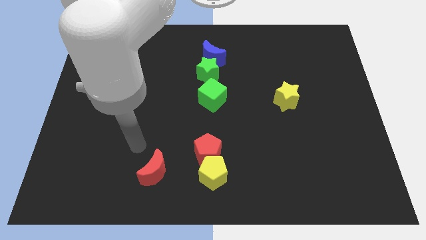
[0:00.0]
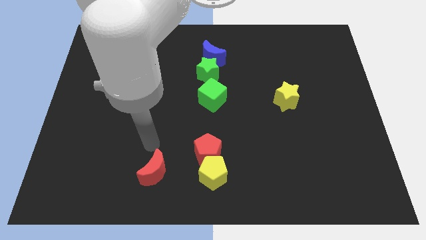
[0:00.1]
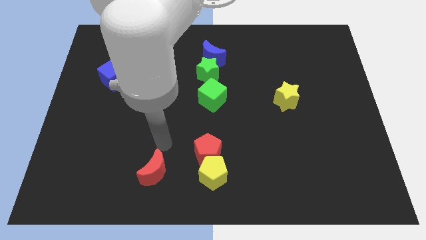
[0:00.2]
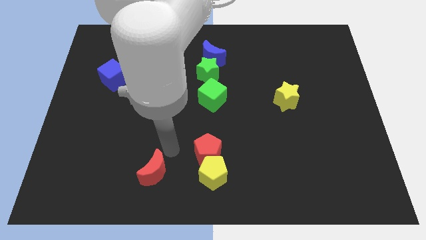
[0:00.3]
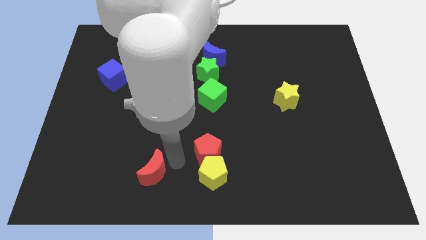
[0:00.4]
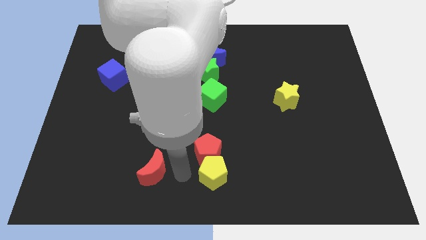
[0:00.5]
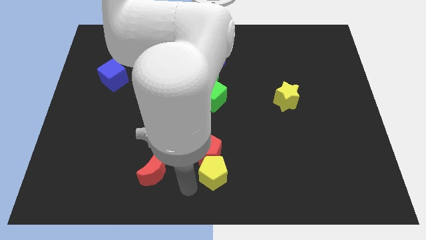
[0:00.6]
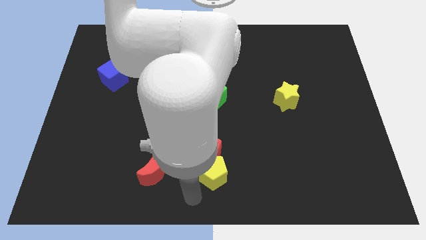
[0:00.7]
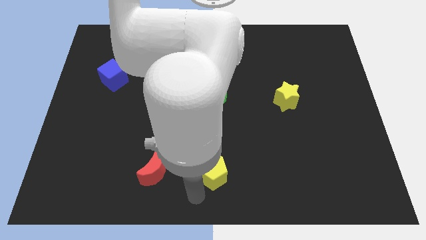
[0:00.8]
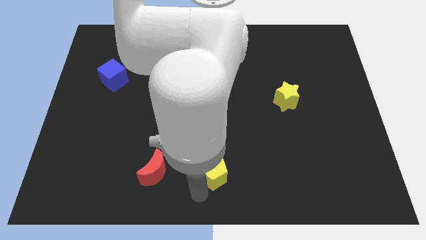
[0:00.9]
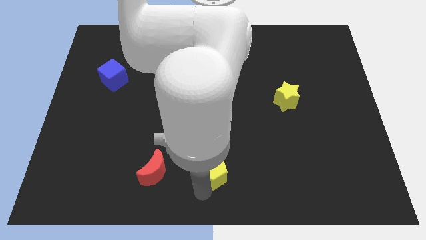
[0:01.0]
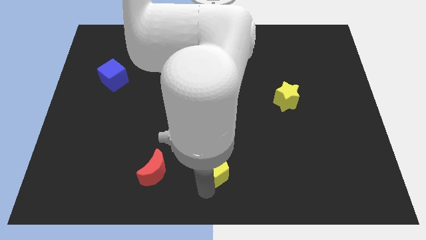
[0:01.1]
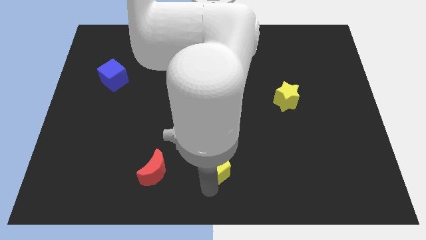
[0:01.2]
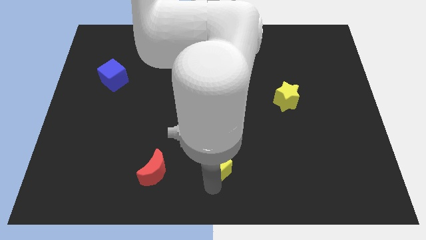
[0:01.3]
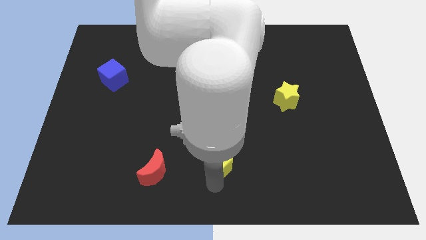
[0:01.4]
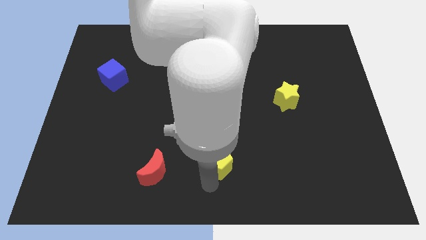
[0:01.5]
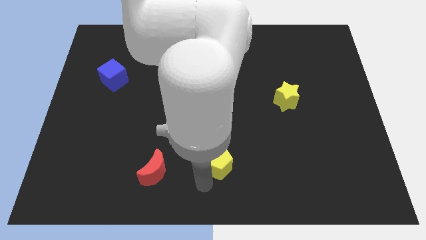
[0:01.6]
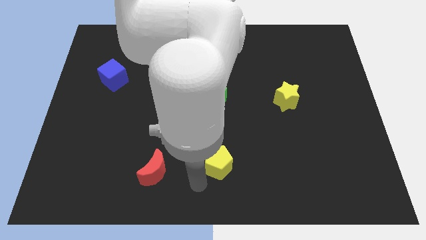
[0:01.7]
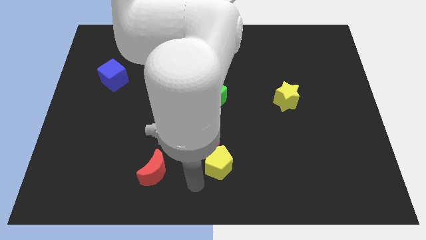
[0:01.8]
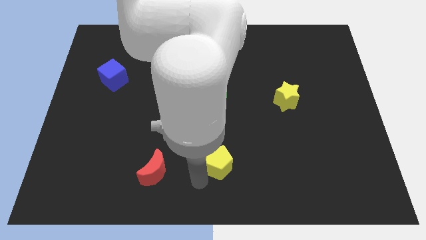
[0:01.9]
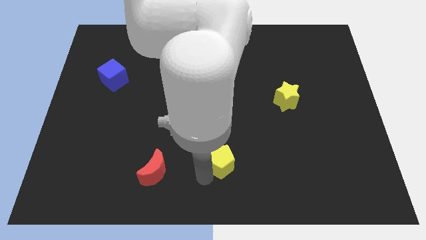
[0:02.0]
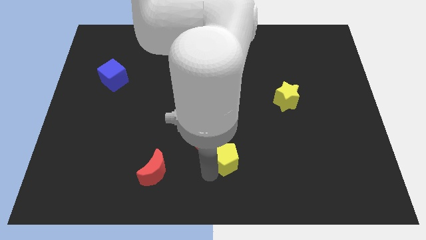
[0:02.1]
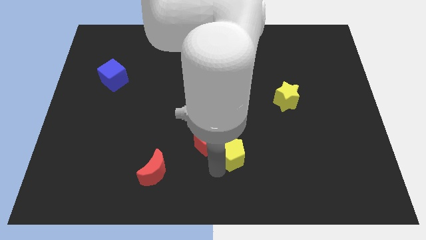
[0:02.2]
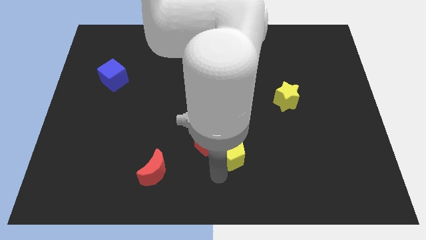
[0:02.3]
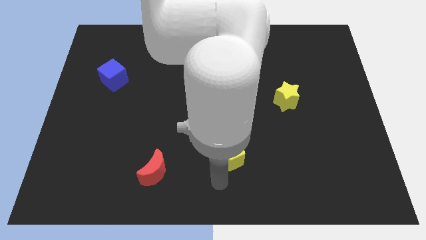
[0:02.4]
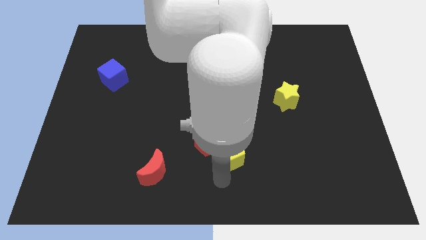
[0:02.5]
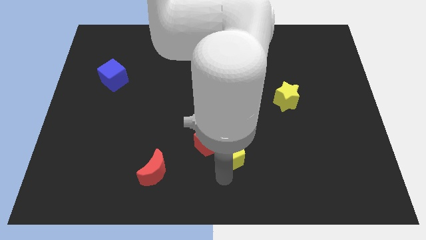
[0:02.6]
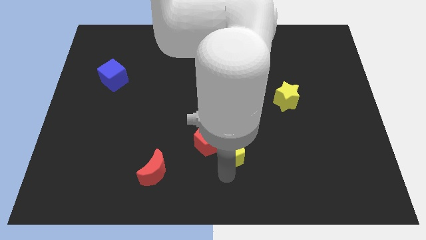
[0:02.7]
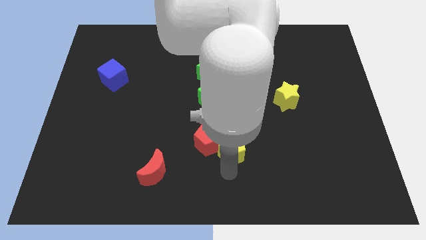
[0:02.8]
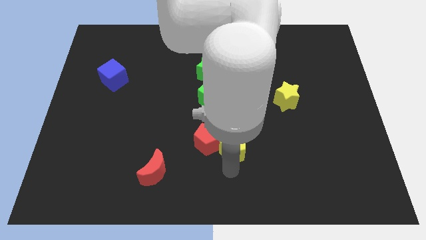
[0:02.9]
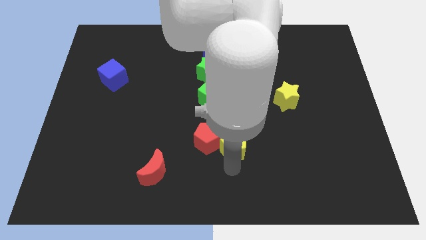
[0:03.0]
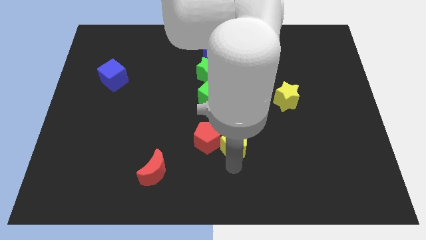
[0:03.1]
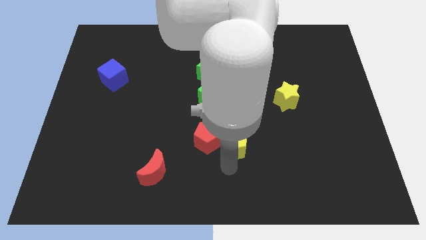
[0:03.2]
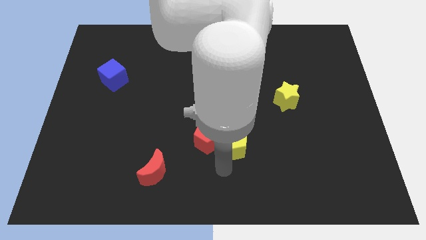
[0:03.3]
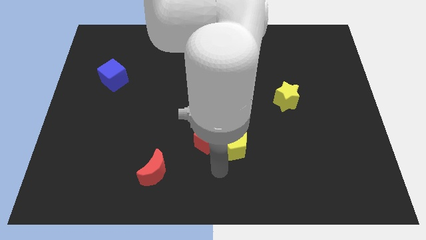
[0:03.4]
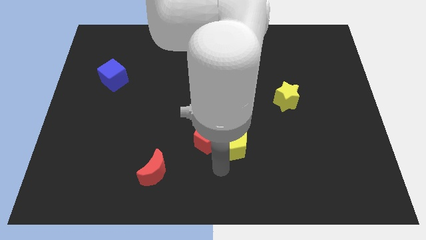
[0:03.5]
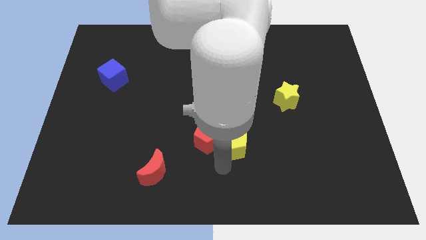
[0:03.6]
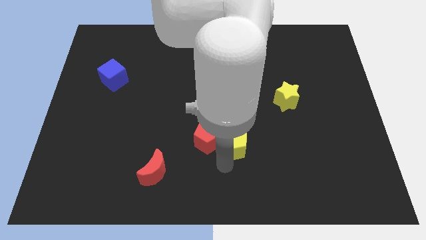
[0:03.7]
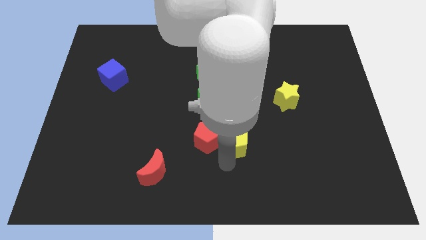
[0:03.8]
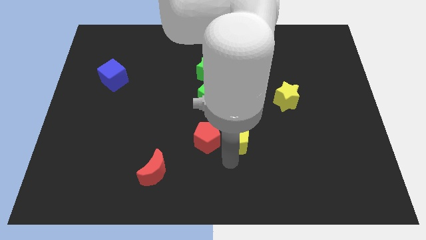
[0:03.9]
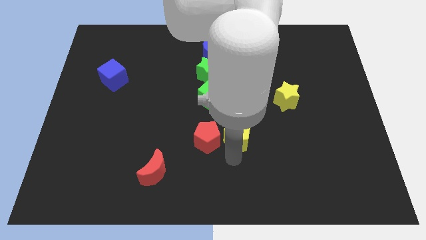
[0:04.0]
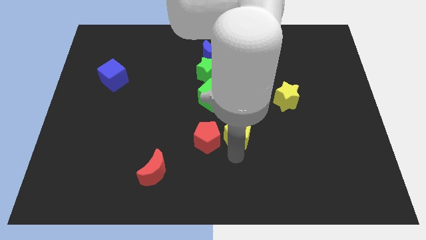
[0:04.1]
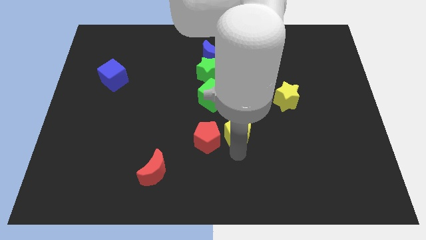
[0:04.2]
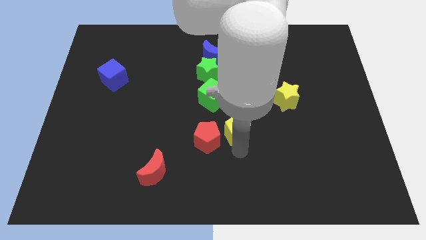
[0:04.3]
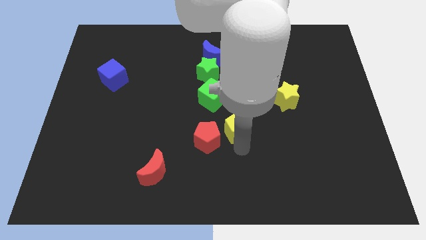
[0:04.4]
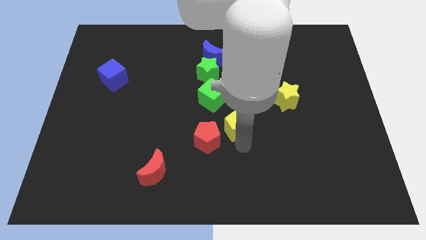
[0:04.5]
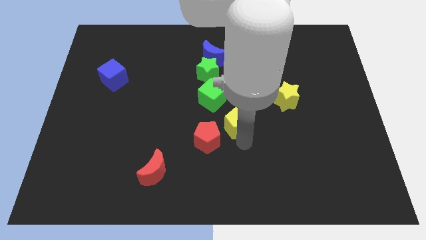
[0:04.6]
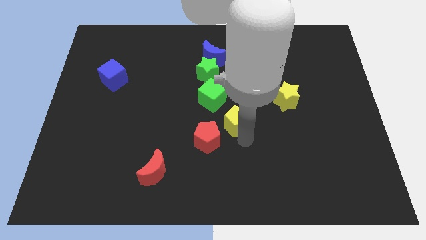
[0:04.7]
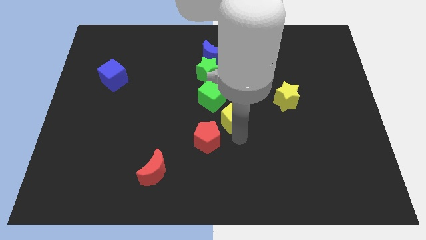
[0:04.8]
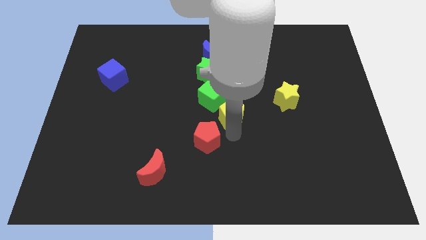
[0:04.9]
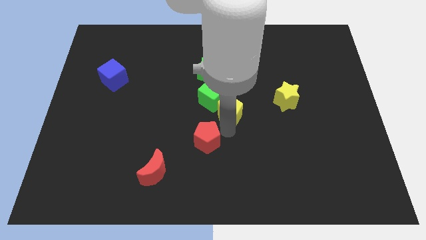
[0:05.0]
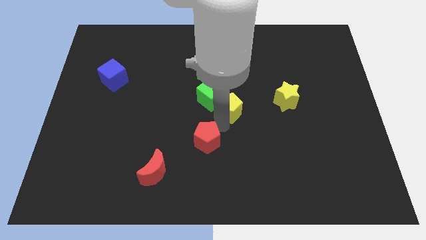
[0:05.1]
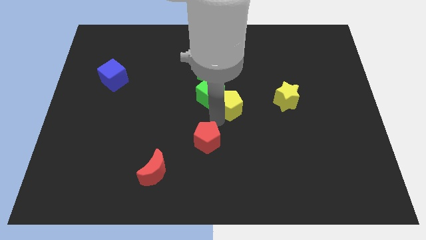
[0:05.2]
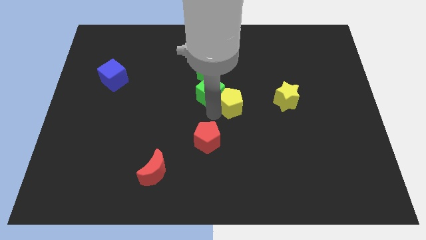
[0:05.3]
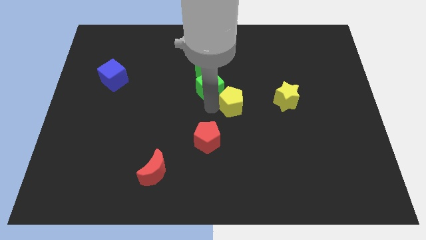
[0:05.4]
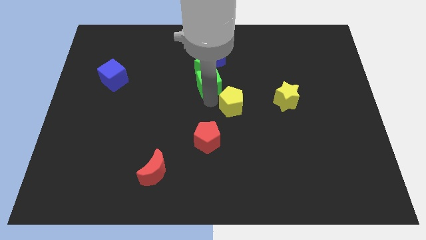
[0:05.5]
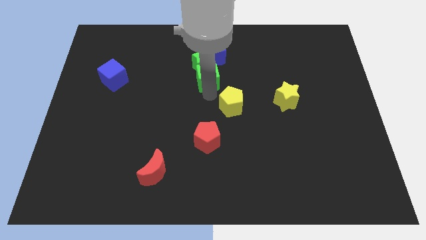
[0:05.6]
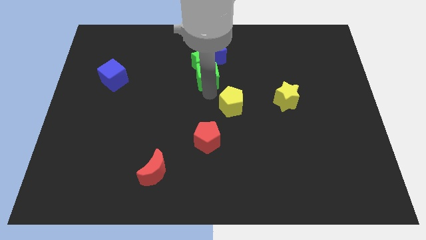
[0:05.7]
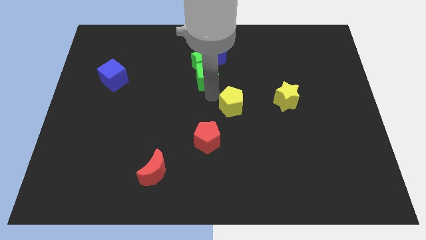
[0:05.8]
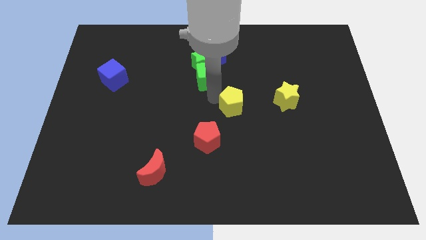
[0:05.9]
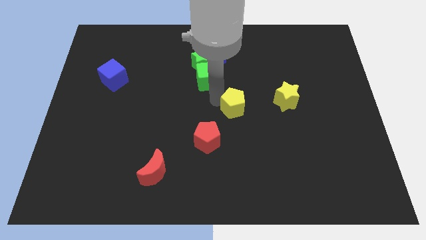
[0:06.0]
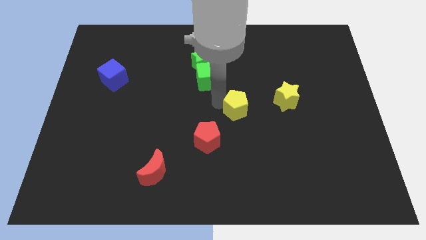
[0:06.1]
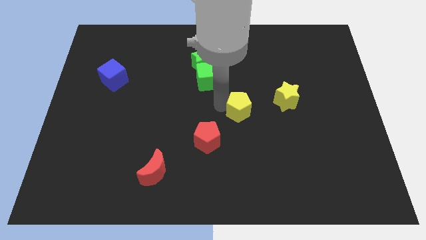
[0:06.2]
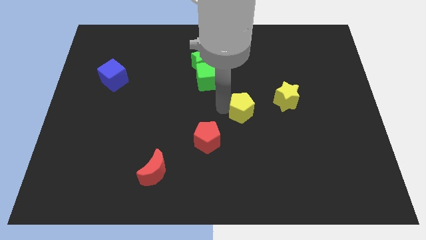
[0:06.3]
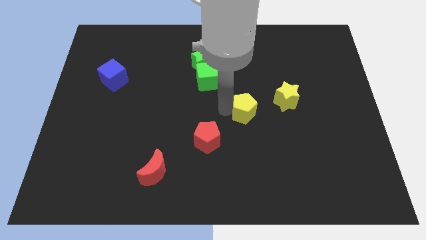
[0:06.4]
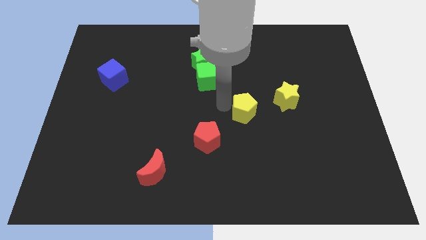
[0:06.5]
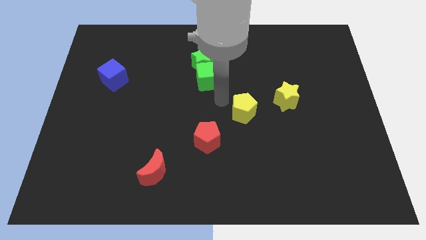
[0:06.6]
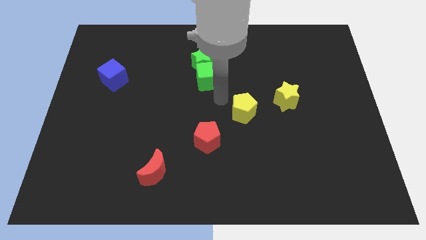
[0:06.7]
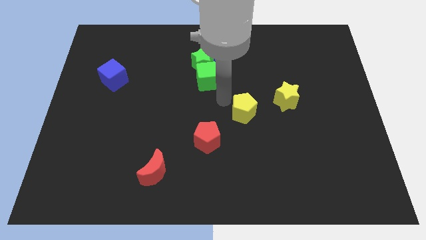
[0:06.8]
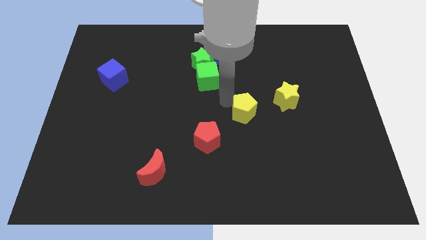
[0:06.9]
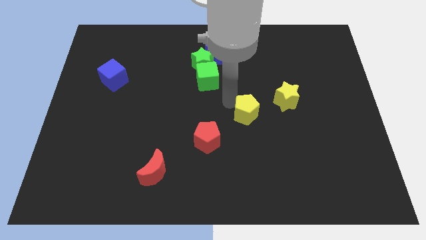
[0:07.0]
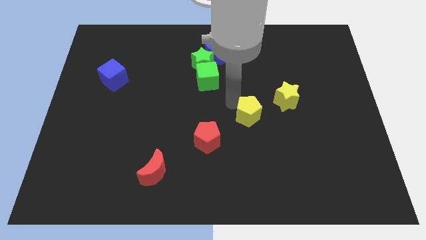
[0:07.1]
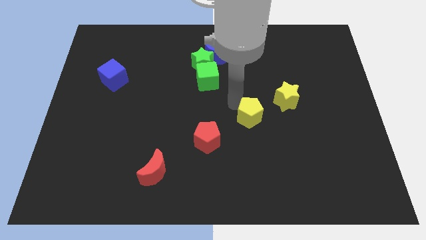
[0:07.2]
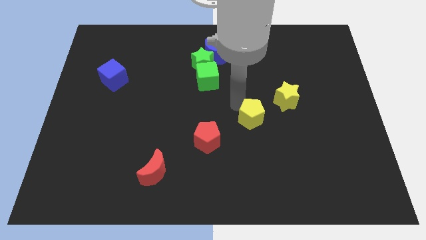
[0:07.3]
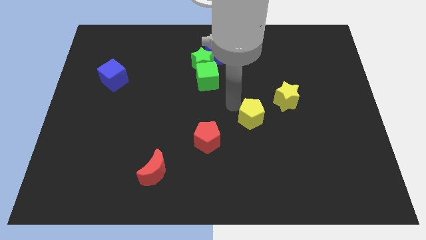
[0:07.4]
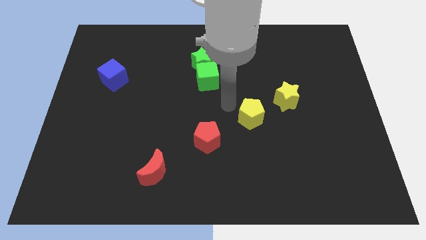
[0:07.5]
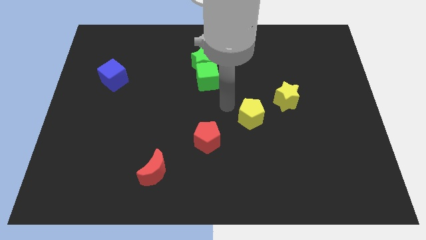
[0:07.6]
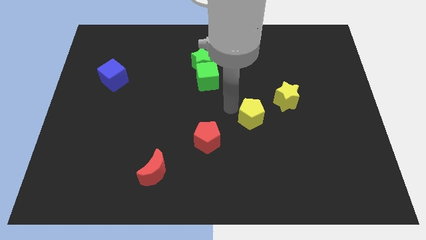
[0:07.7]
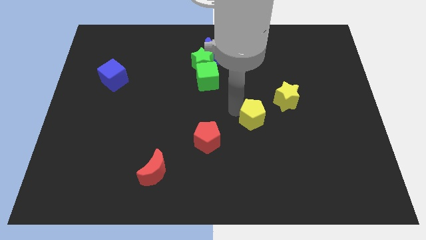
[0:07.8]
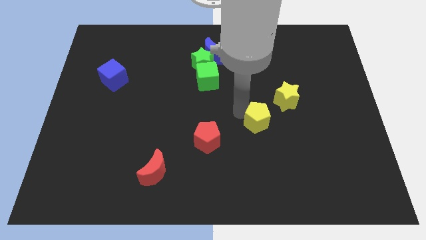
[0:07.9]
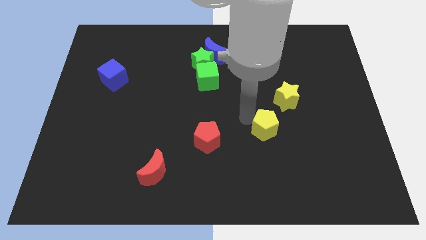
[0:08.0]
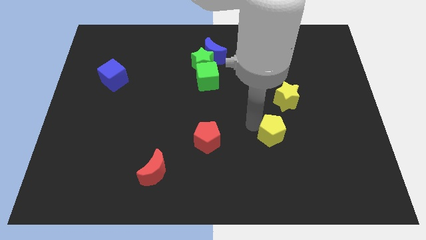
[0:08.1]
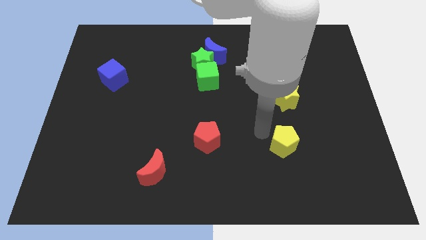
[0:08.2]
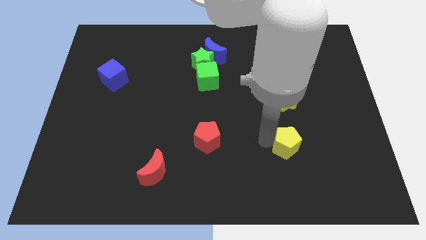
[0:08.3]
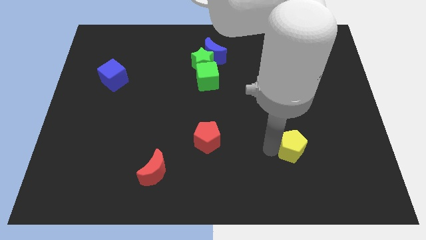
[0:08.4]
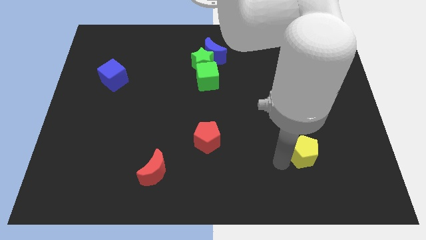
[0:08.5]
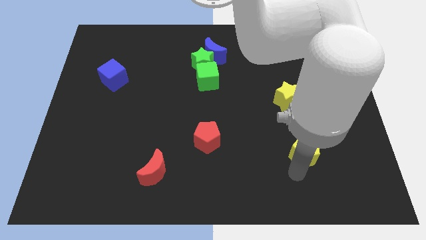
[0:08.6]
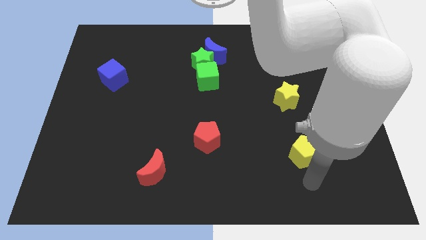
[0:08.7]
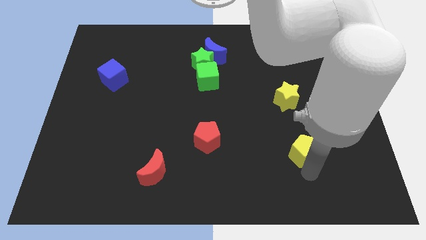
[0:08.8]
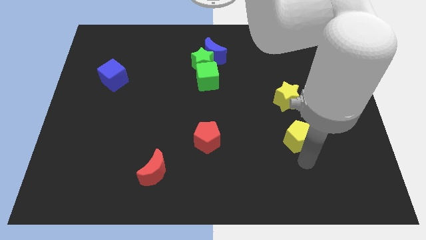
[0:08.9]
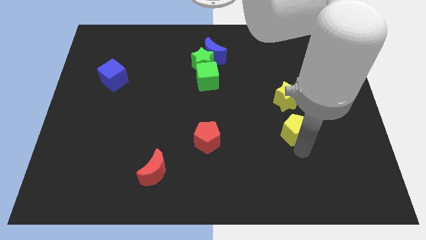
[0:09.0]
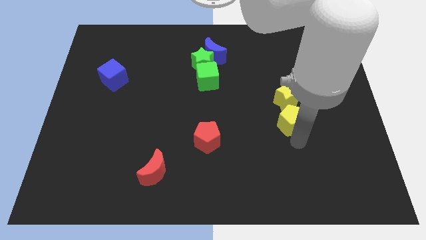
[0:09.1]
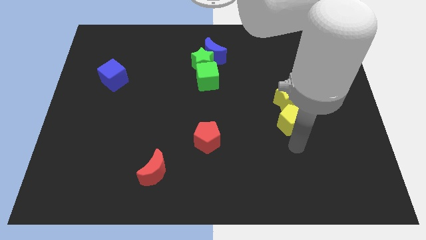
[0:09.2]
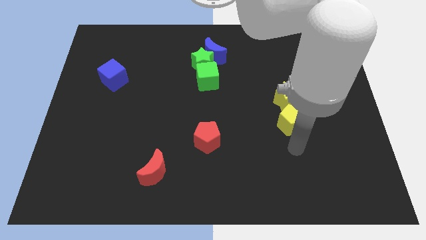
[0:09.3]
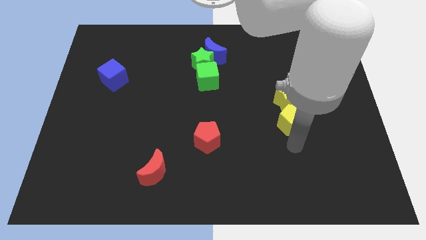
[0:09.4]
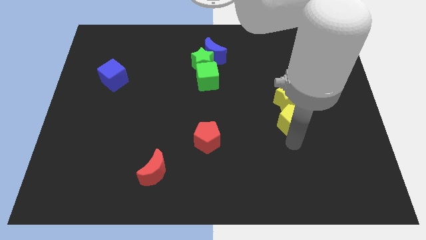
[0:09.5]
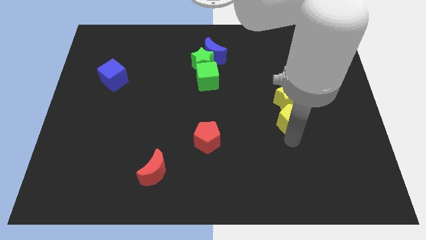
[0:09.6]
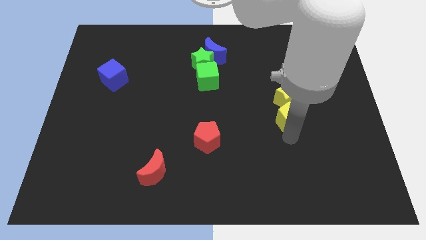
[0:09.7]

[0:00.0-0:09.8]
move the yellow pentagon next to the yellow star
